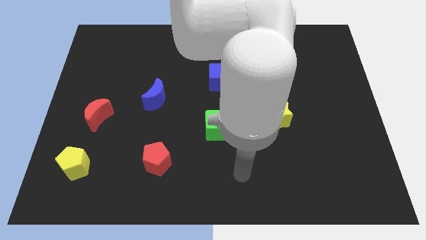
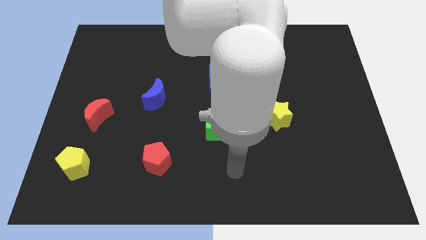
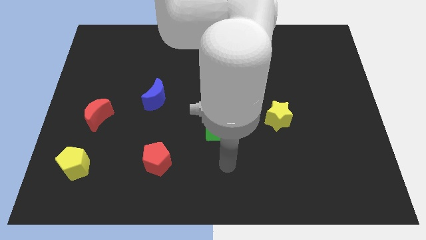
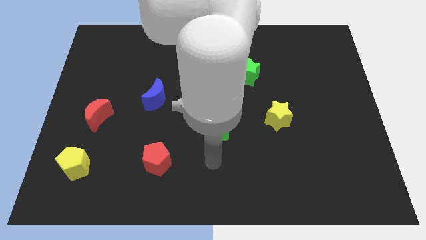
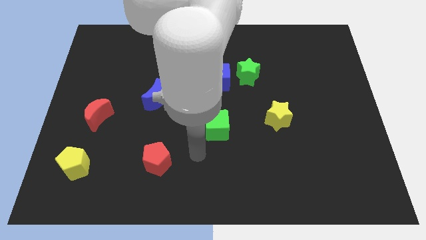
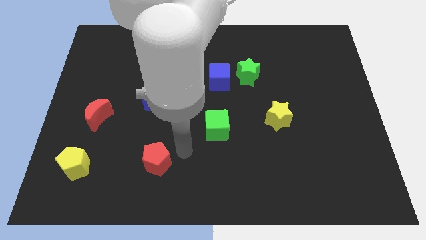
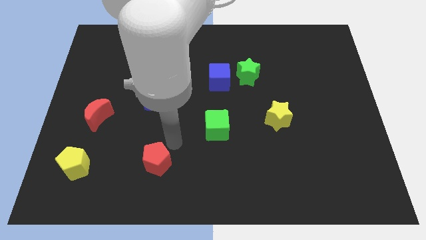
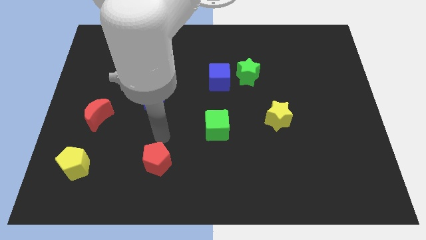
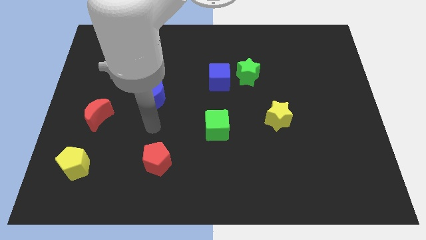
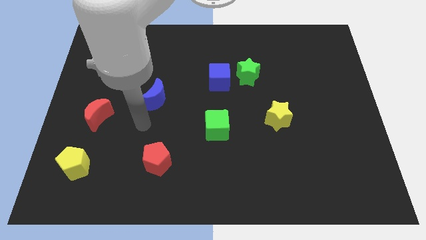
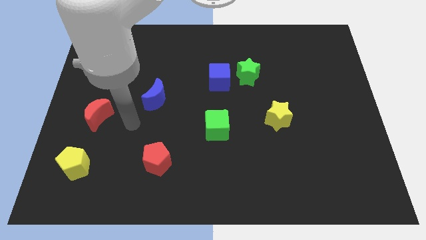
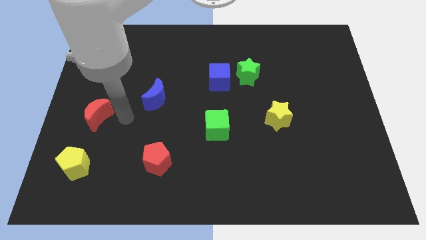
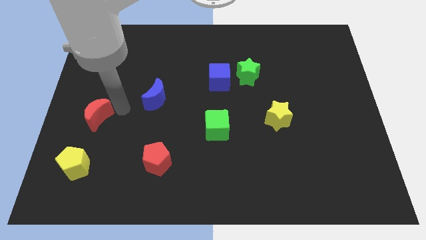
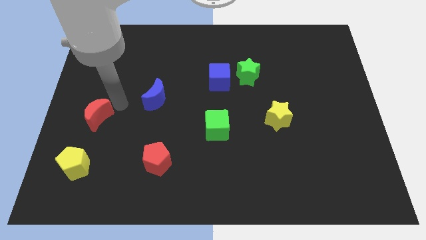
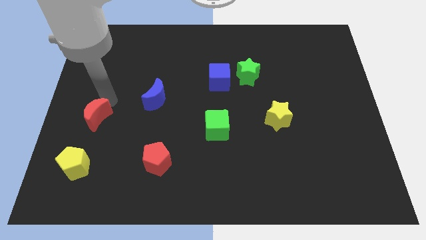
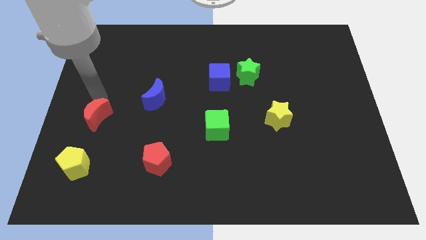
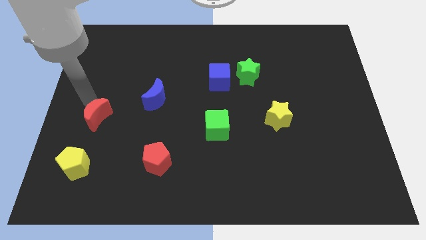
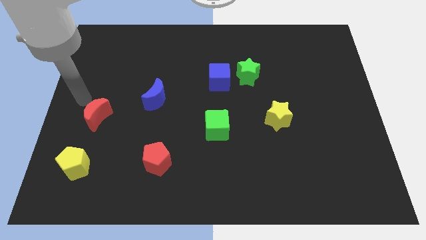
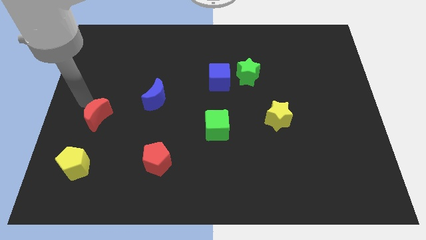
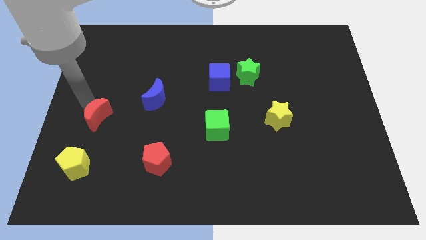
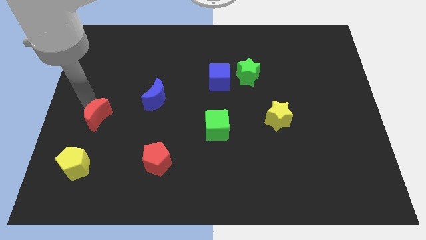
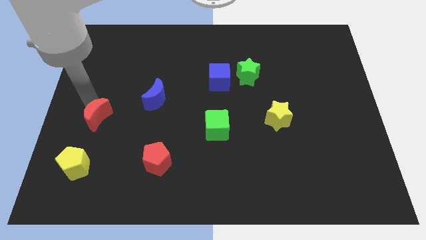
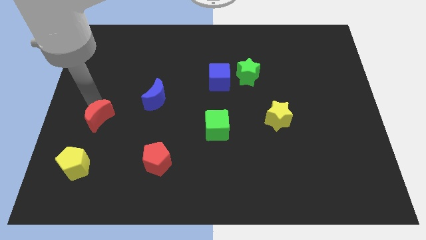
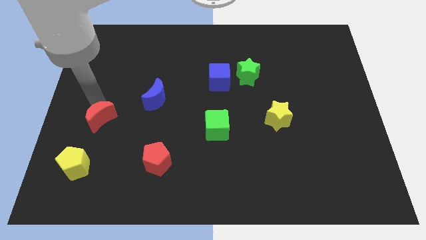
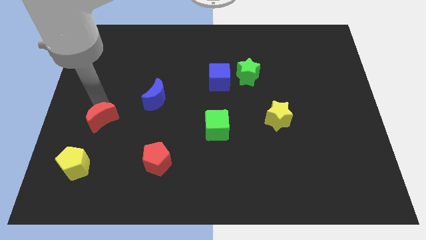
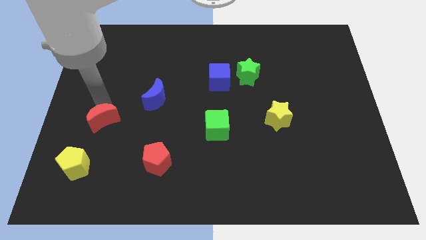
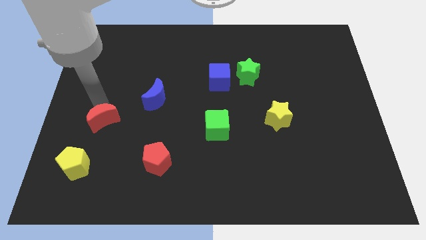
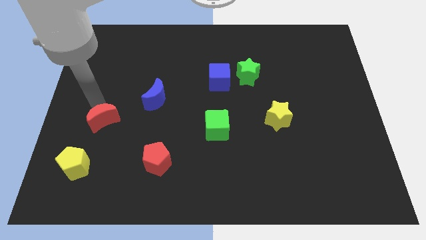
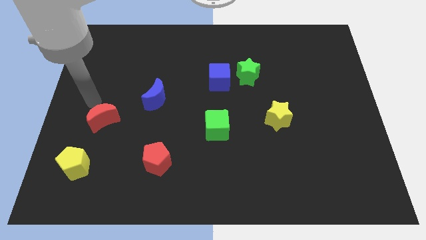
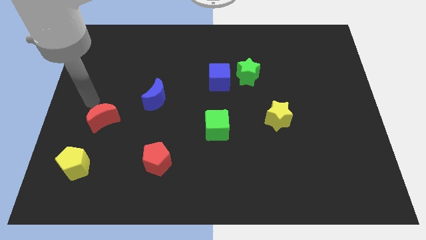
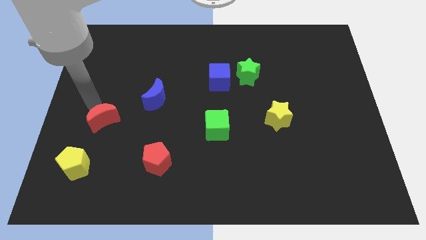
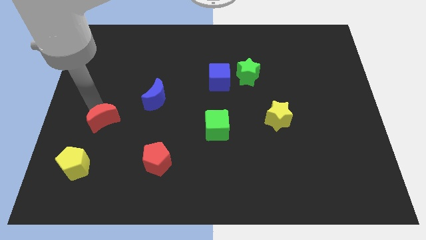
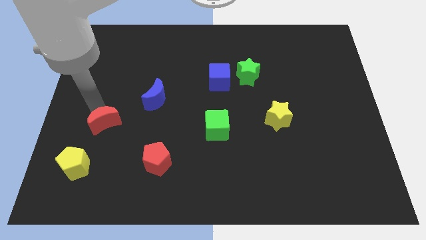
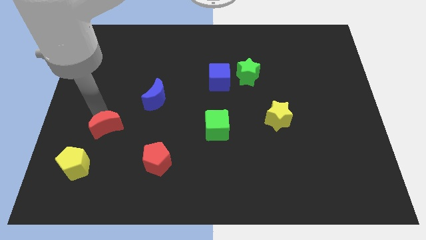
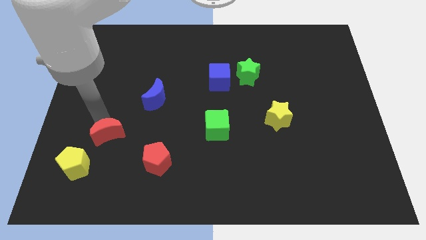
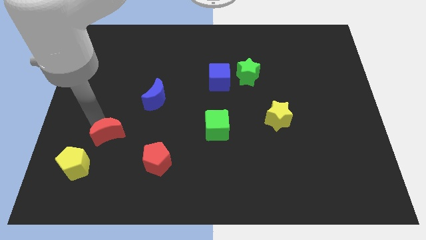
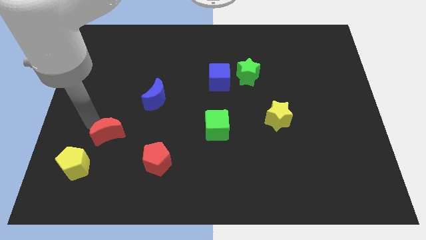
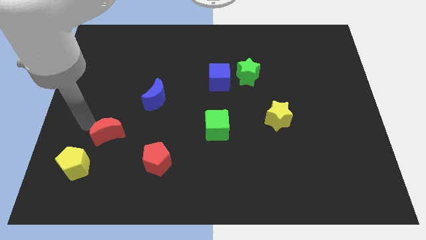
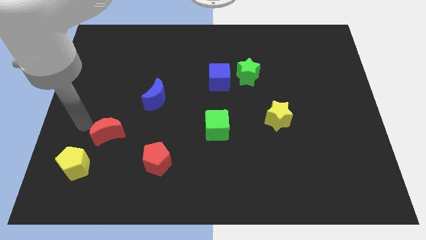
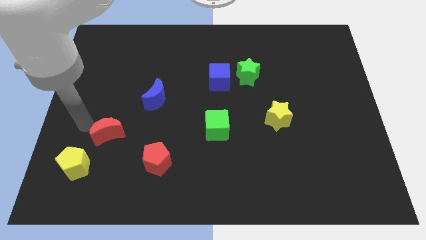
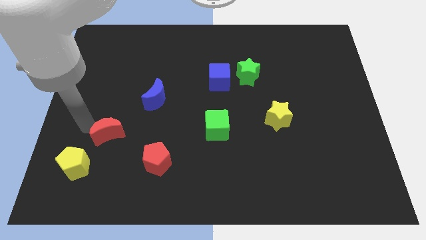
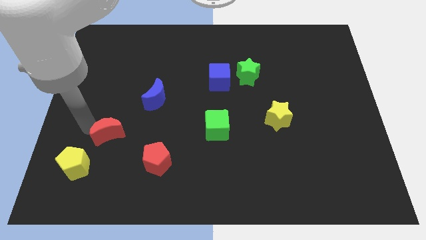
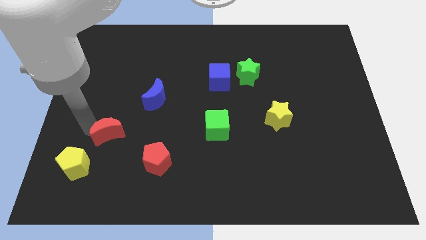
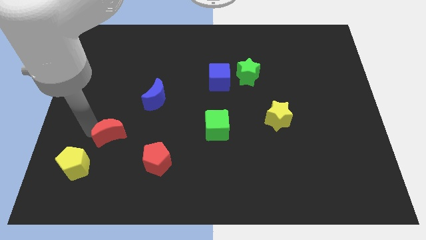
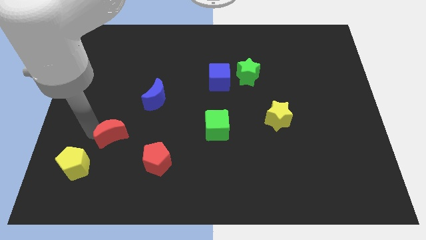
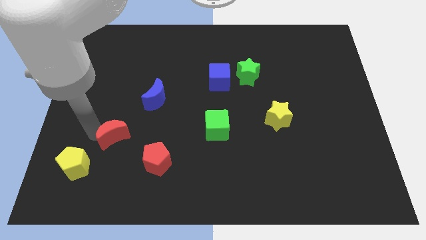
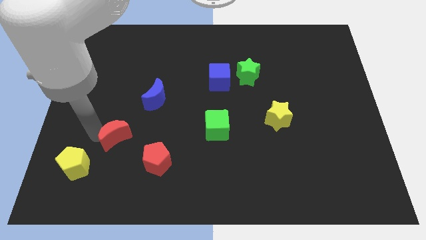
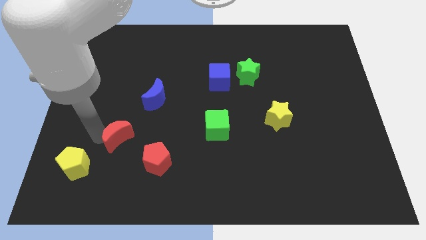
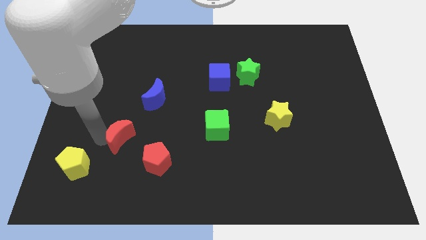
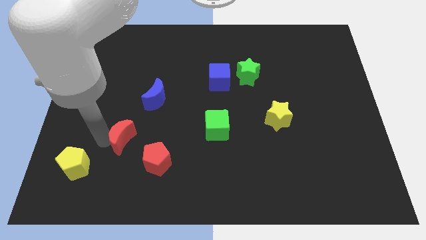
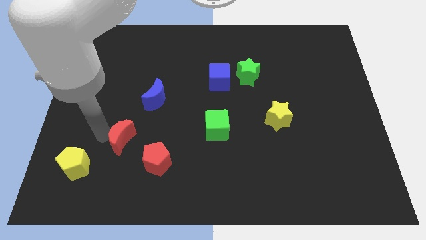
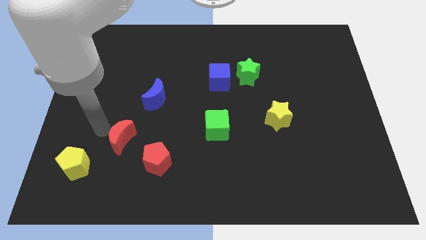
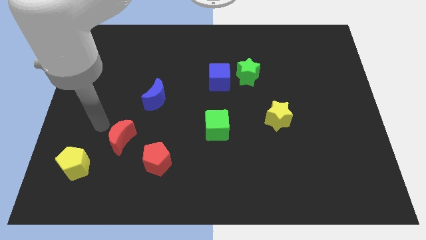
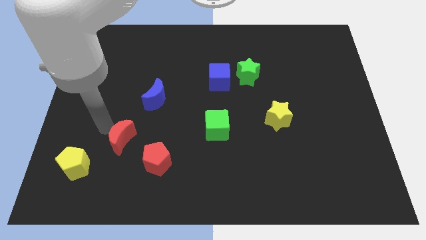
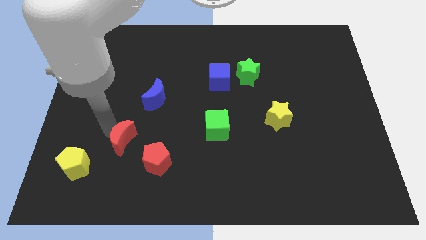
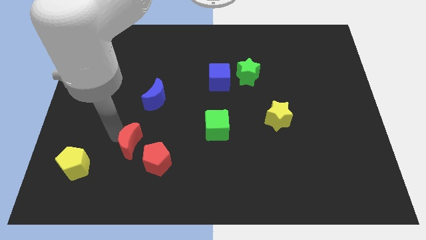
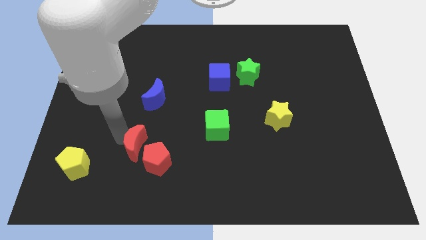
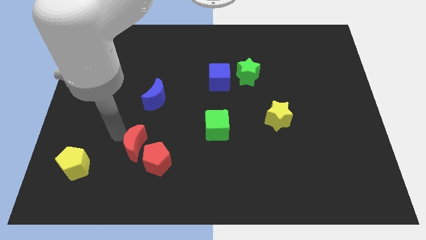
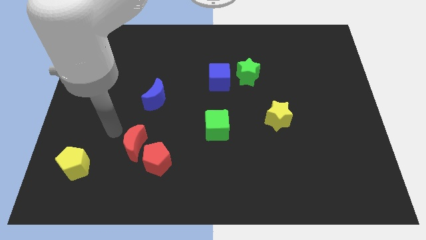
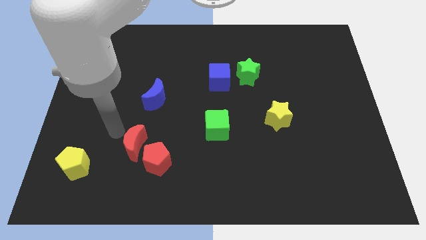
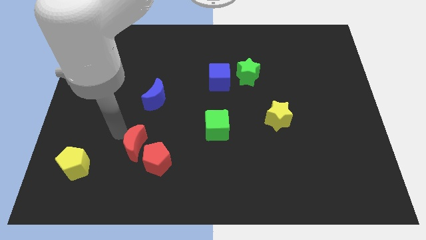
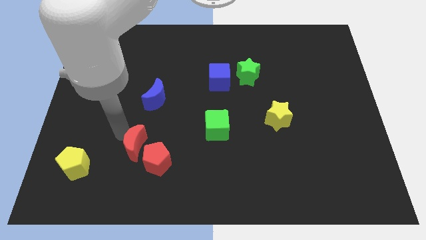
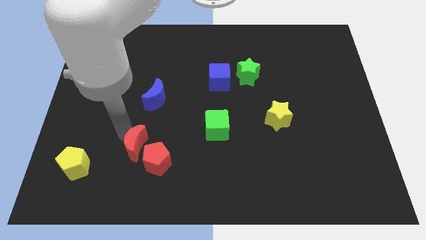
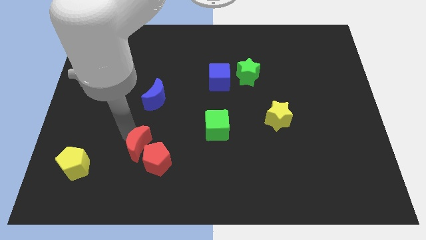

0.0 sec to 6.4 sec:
move the red moon close to the red pentagon
